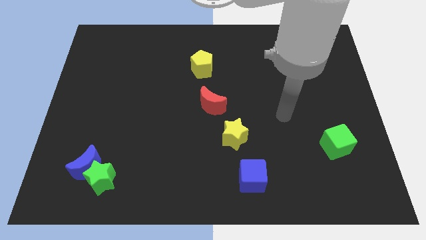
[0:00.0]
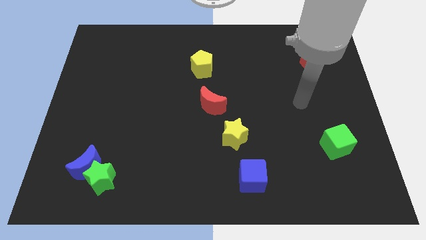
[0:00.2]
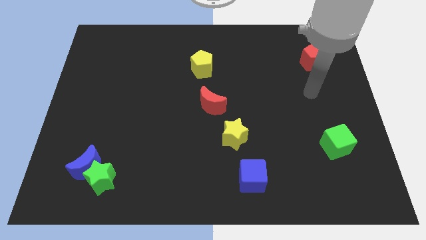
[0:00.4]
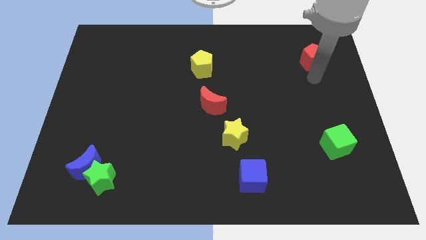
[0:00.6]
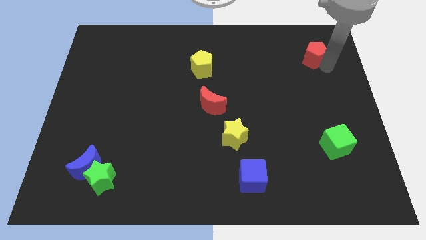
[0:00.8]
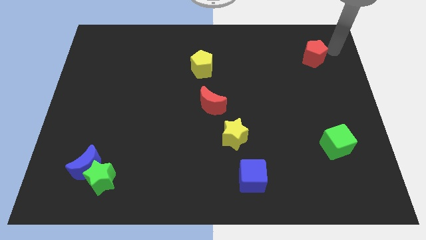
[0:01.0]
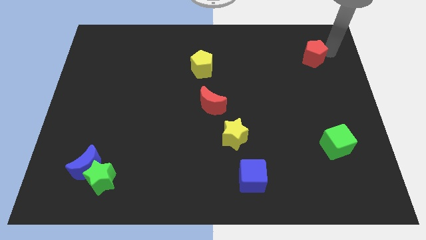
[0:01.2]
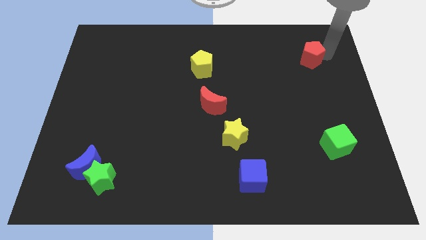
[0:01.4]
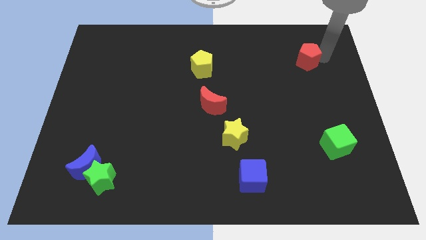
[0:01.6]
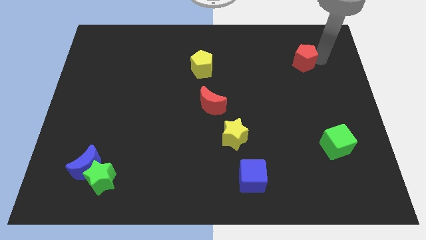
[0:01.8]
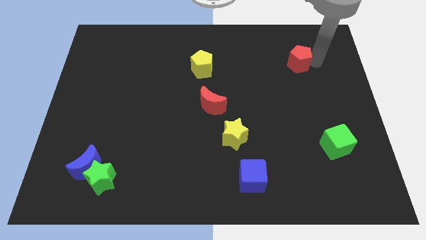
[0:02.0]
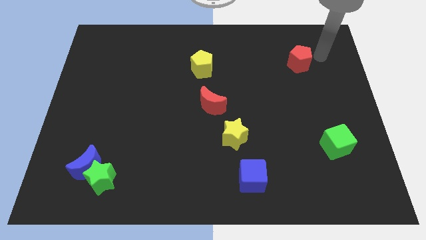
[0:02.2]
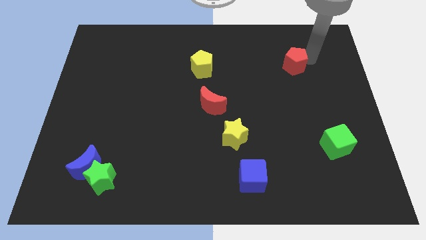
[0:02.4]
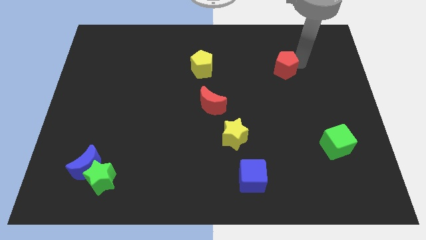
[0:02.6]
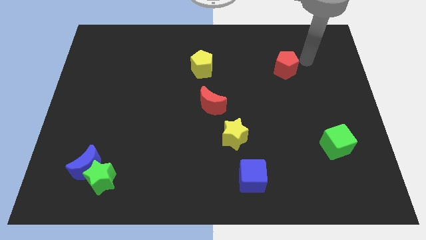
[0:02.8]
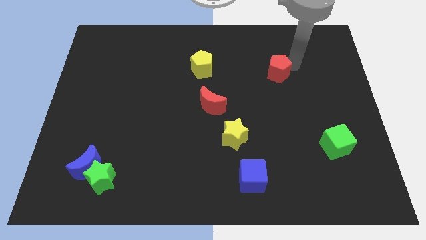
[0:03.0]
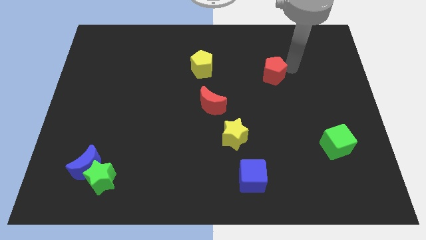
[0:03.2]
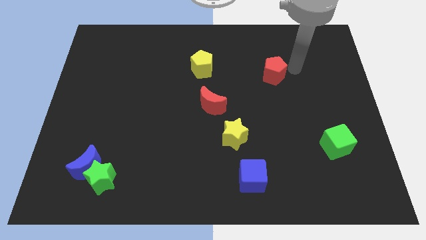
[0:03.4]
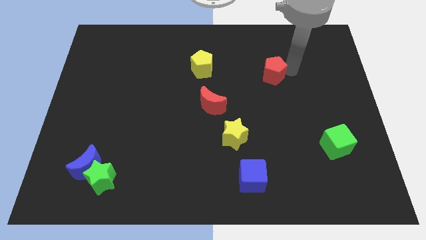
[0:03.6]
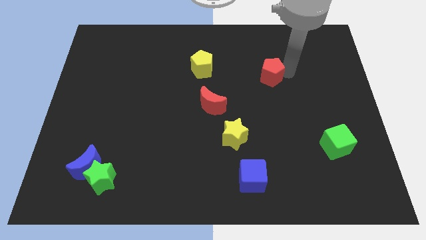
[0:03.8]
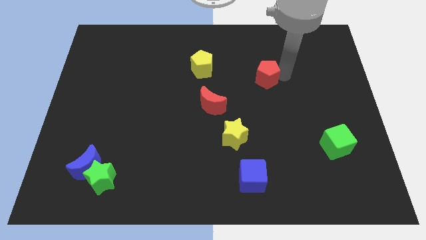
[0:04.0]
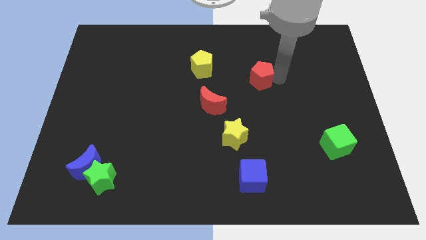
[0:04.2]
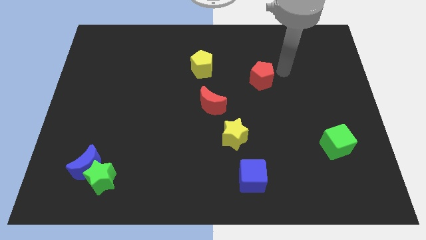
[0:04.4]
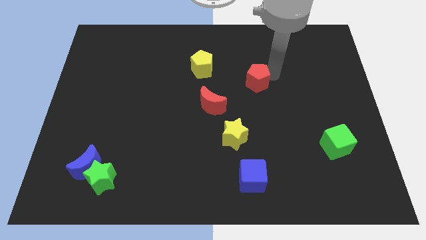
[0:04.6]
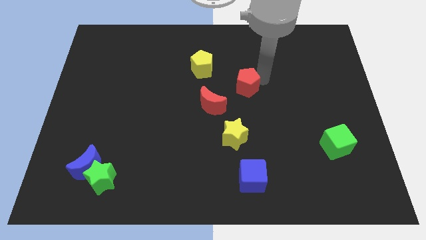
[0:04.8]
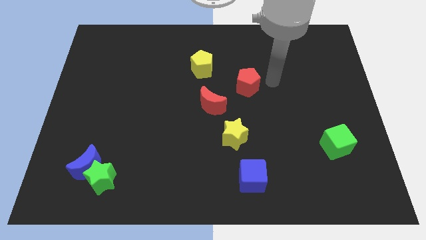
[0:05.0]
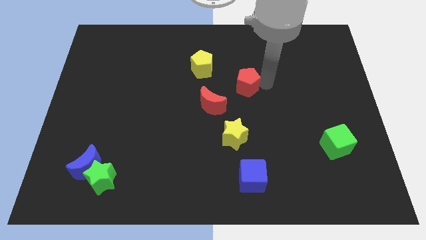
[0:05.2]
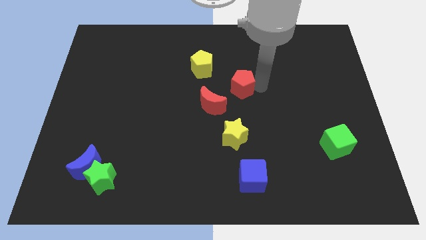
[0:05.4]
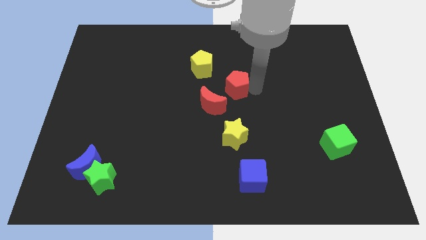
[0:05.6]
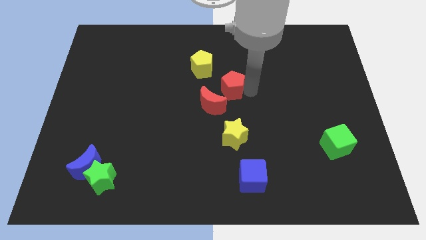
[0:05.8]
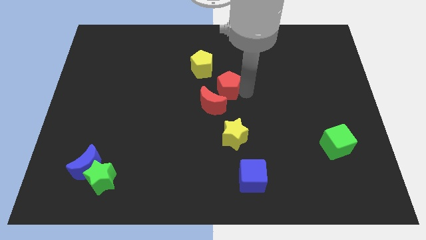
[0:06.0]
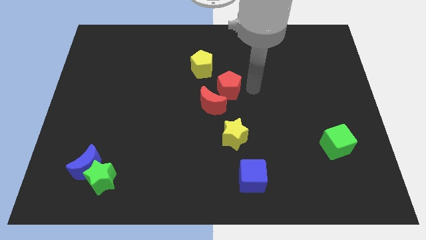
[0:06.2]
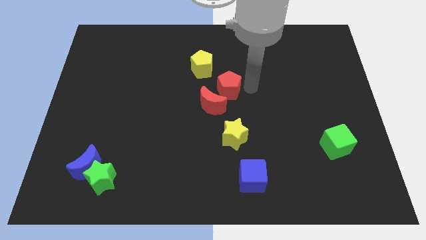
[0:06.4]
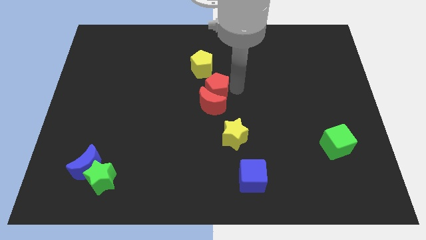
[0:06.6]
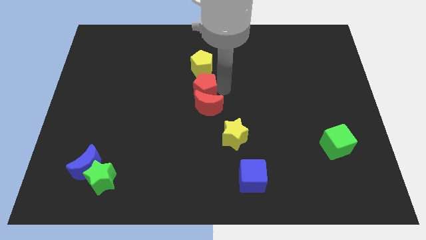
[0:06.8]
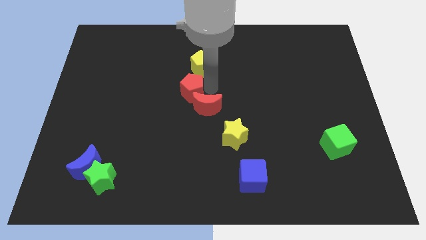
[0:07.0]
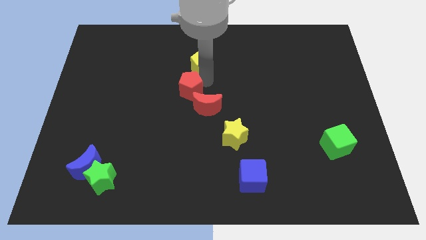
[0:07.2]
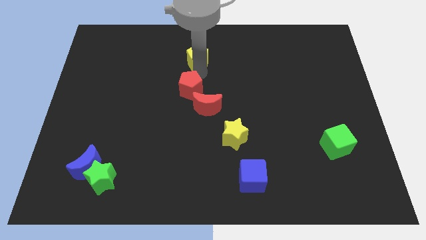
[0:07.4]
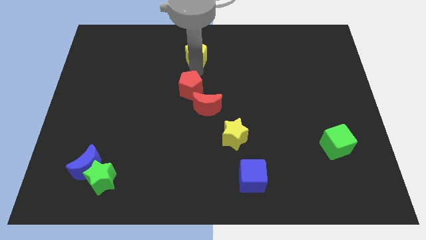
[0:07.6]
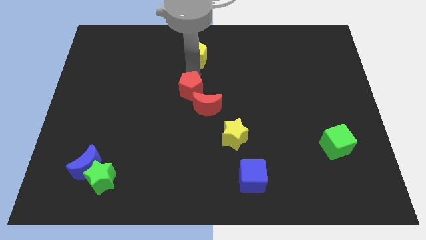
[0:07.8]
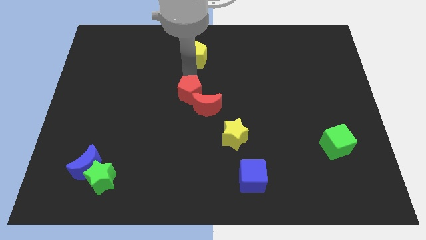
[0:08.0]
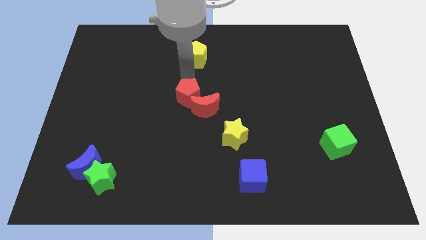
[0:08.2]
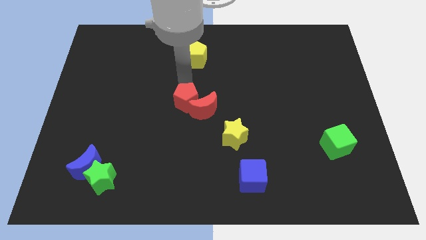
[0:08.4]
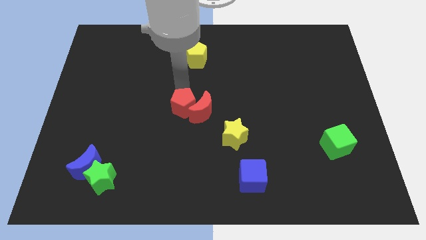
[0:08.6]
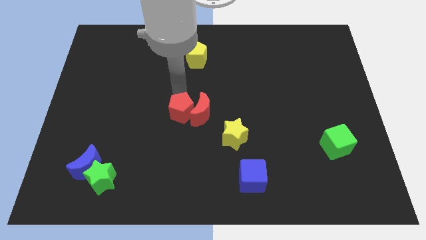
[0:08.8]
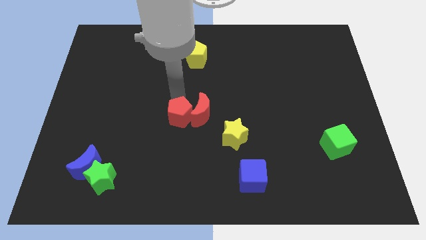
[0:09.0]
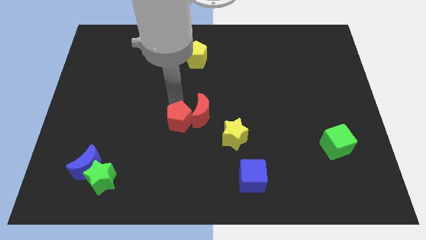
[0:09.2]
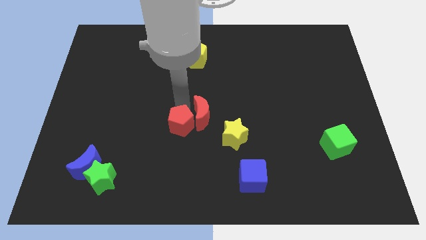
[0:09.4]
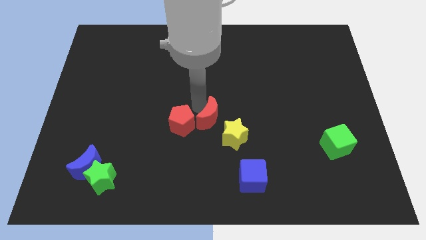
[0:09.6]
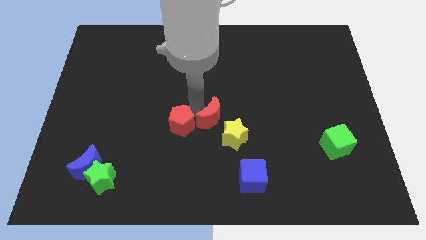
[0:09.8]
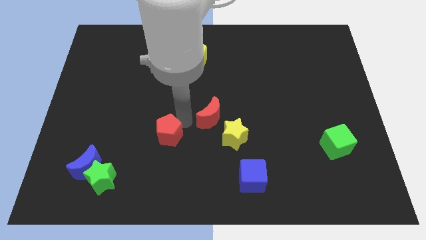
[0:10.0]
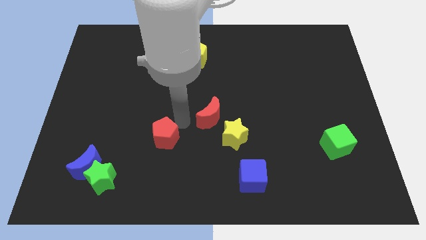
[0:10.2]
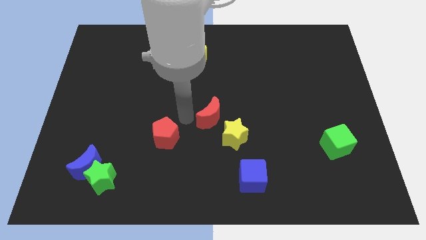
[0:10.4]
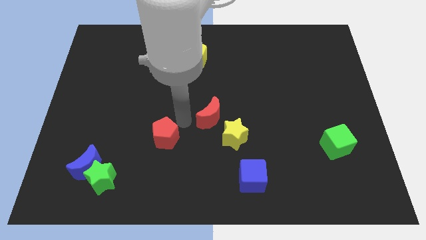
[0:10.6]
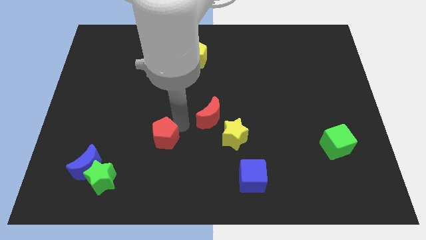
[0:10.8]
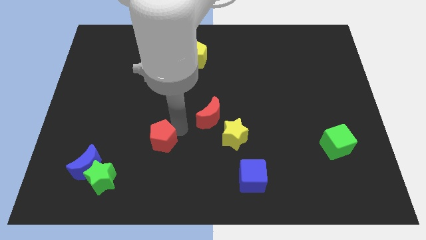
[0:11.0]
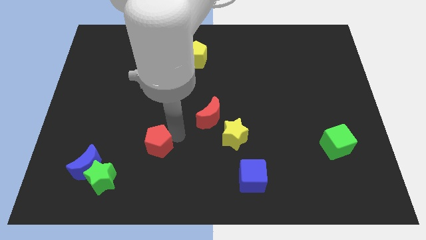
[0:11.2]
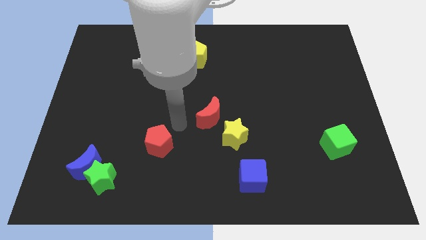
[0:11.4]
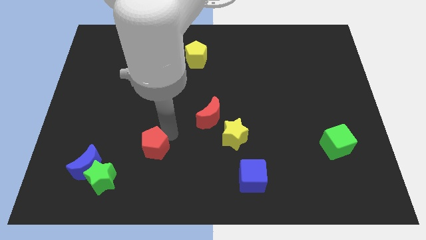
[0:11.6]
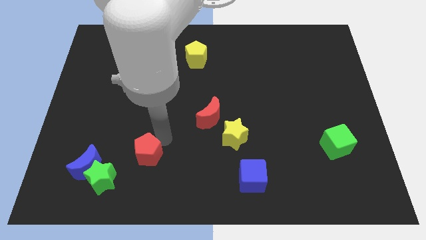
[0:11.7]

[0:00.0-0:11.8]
put the red pentagon right of the blue moon

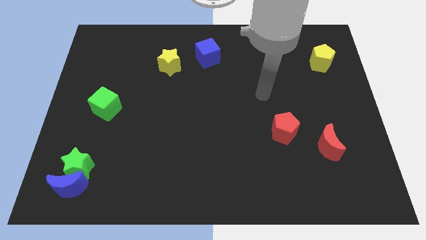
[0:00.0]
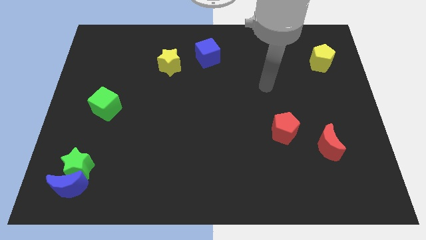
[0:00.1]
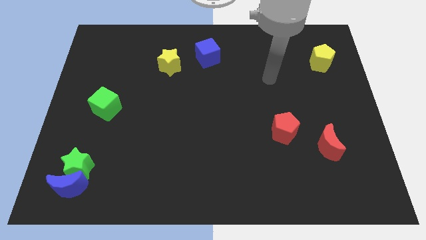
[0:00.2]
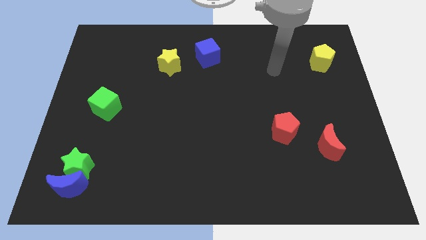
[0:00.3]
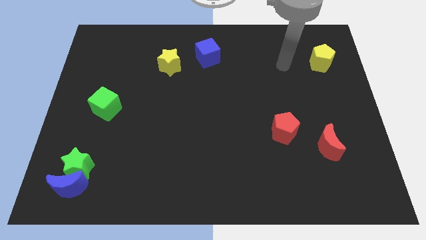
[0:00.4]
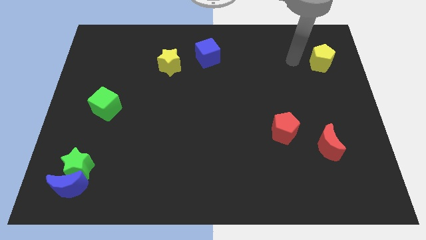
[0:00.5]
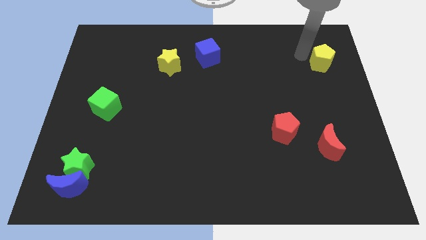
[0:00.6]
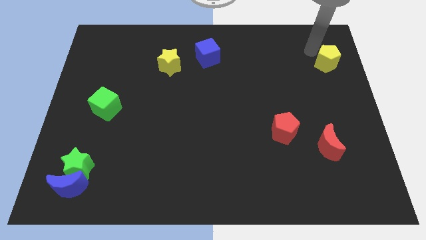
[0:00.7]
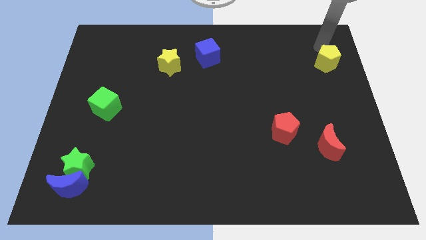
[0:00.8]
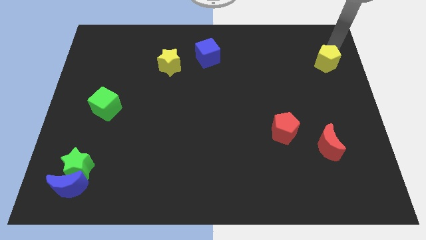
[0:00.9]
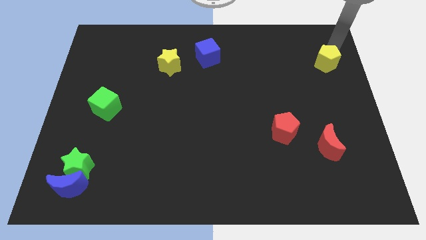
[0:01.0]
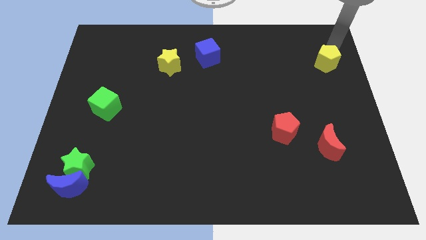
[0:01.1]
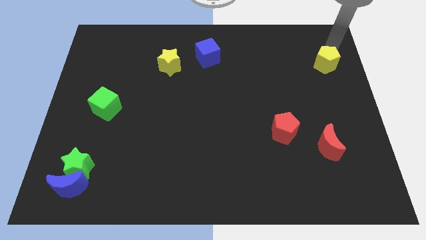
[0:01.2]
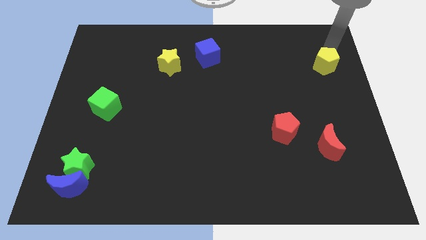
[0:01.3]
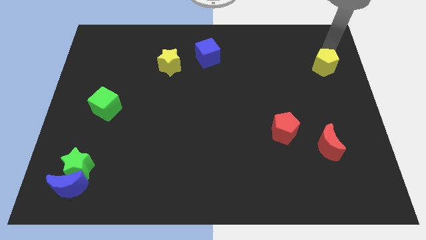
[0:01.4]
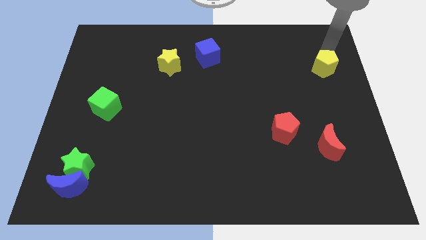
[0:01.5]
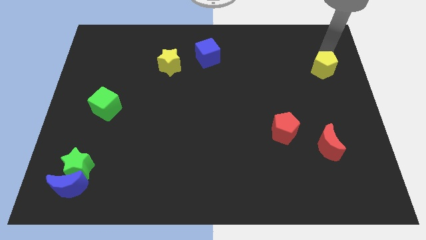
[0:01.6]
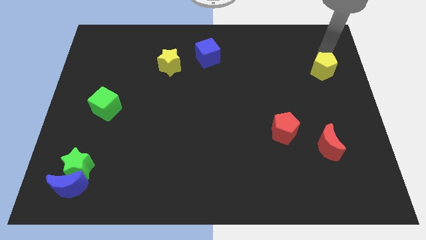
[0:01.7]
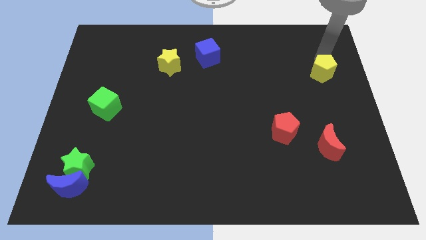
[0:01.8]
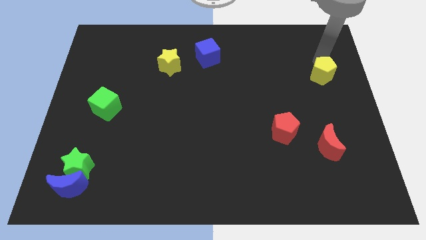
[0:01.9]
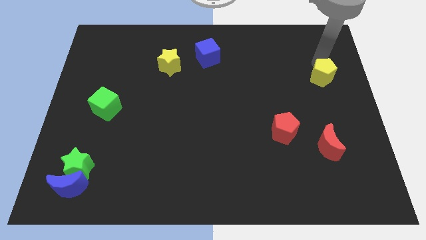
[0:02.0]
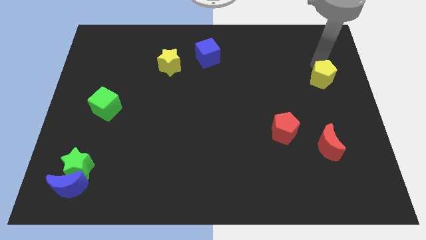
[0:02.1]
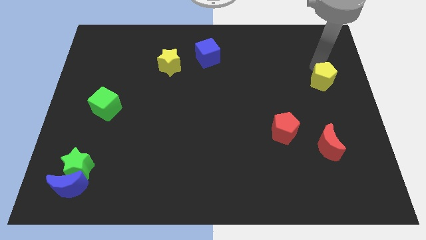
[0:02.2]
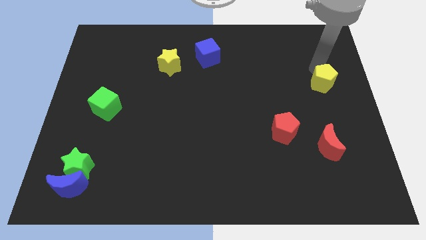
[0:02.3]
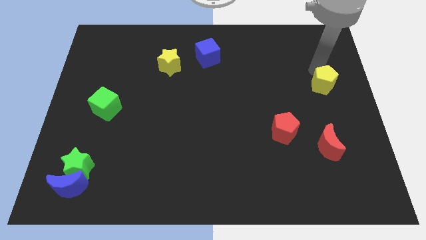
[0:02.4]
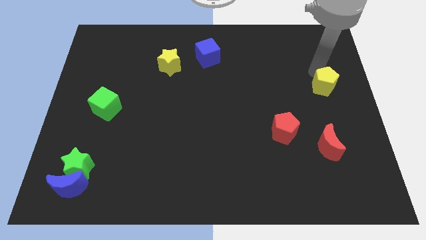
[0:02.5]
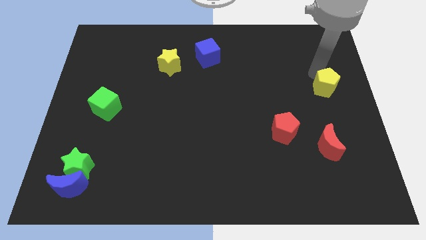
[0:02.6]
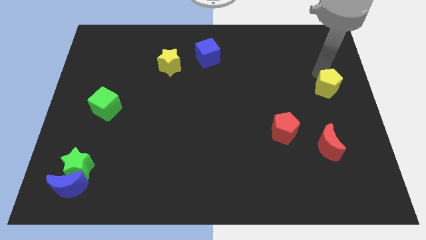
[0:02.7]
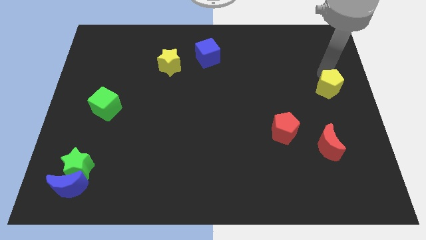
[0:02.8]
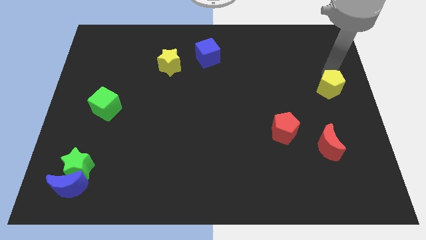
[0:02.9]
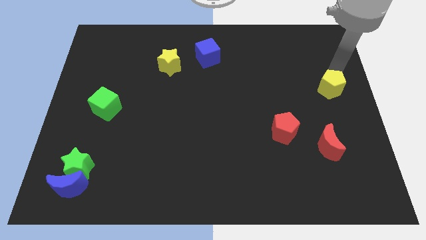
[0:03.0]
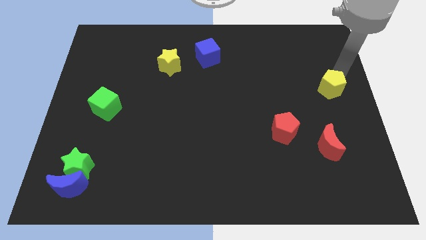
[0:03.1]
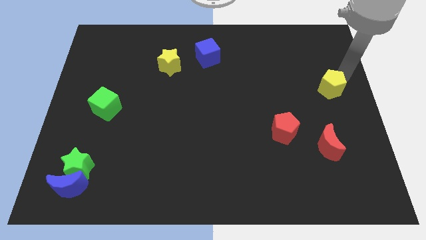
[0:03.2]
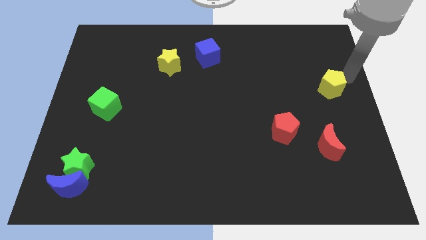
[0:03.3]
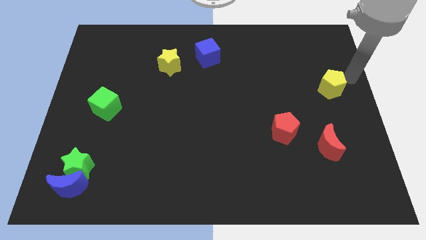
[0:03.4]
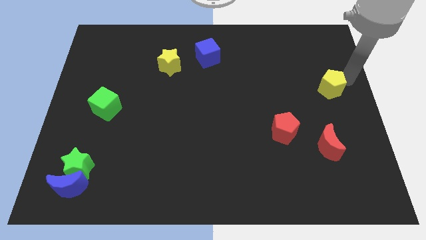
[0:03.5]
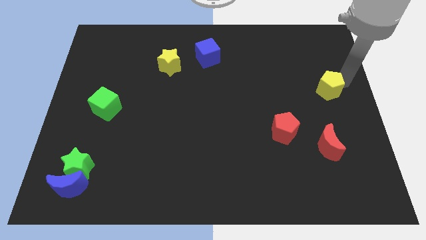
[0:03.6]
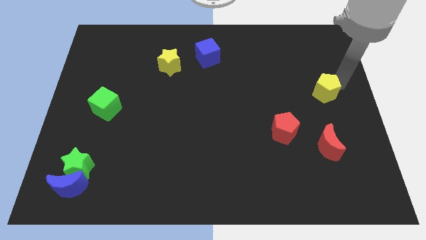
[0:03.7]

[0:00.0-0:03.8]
move the yellow pentagon above the red moon
